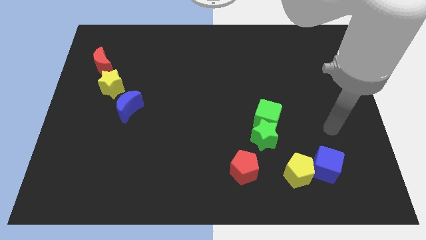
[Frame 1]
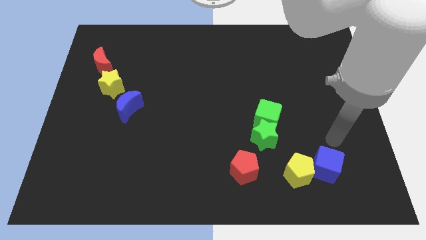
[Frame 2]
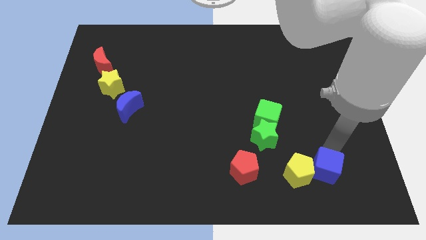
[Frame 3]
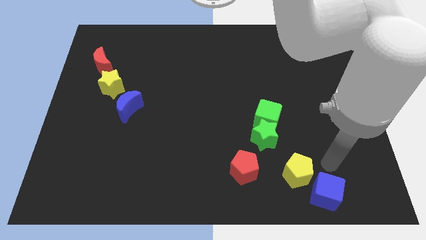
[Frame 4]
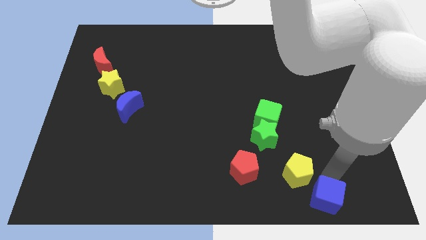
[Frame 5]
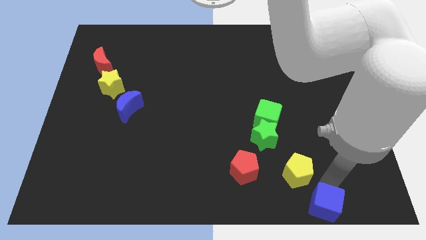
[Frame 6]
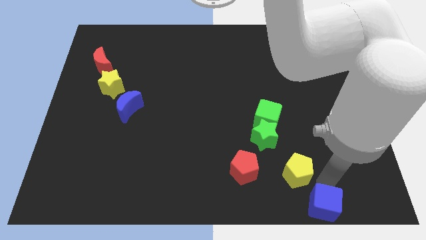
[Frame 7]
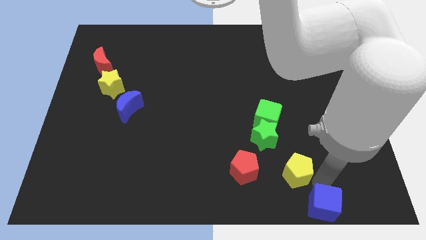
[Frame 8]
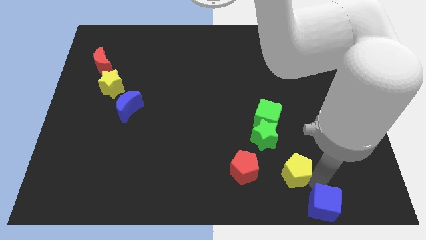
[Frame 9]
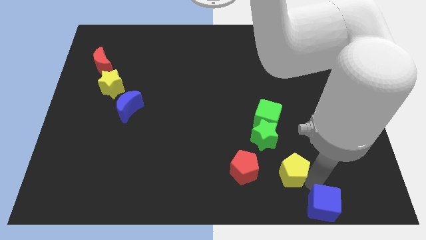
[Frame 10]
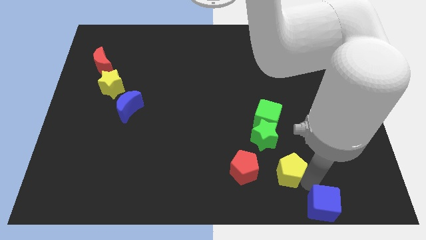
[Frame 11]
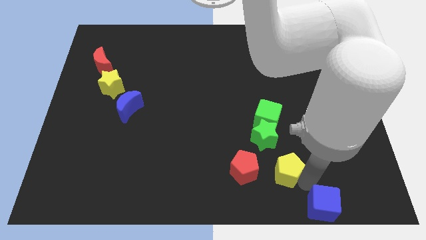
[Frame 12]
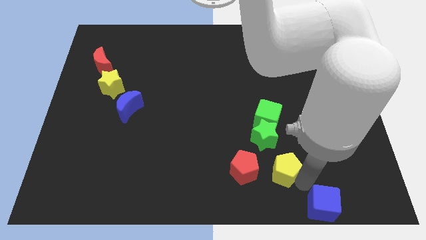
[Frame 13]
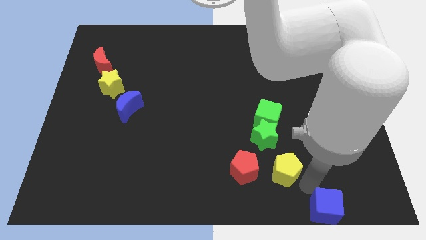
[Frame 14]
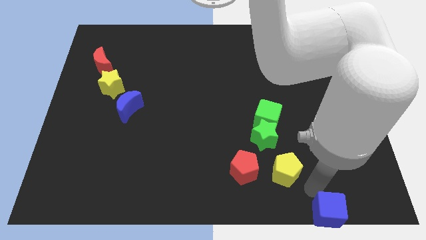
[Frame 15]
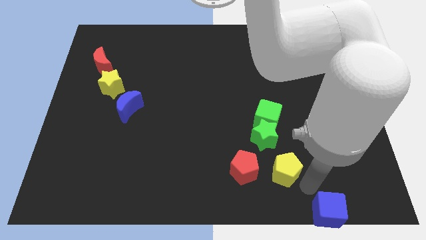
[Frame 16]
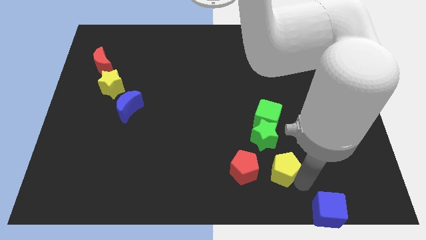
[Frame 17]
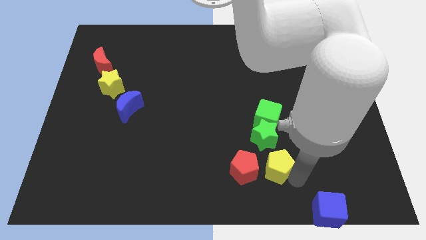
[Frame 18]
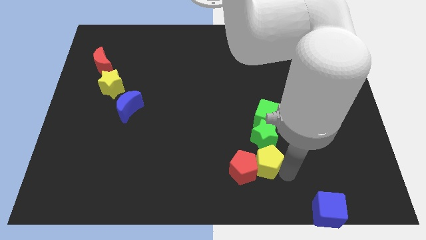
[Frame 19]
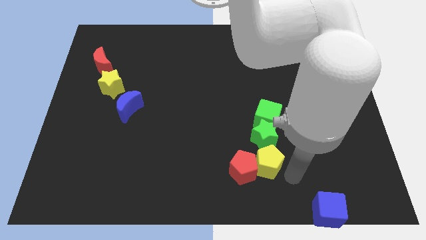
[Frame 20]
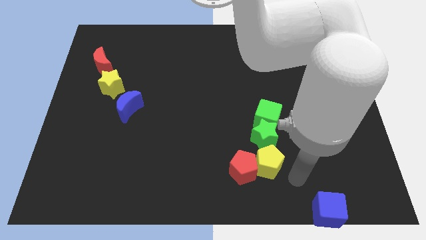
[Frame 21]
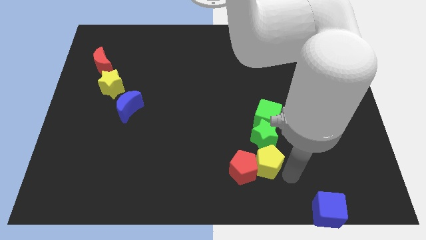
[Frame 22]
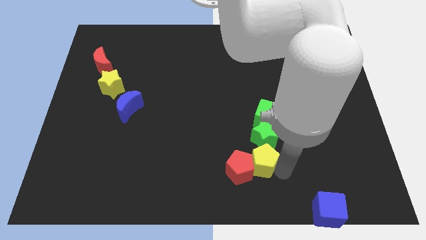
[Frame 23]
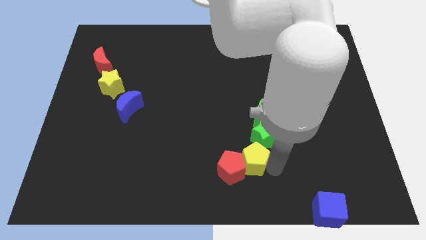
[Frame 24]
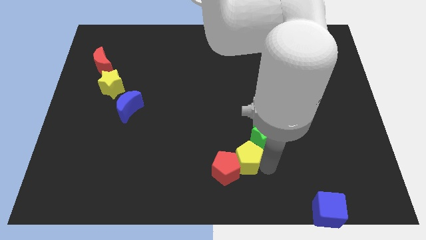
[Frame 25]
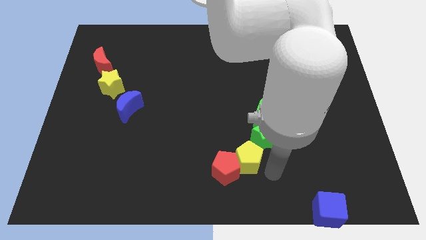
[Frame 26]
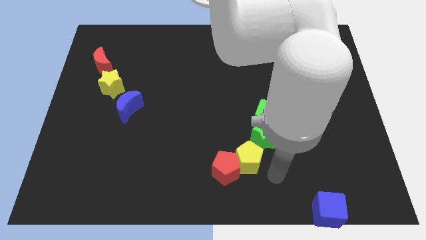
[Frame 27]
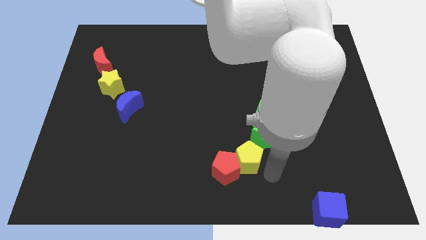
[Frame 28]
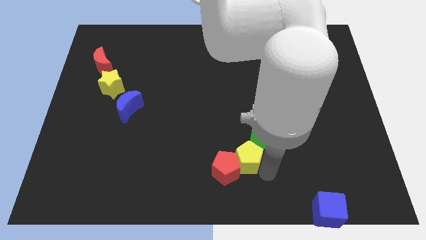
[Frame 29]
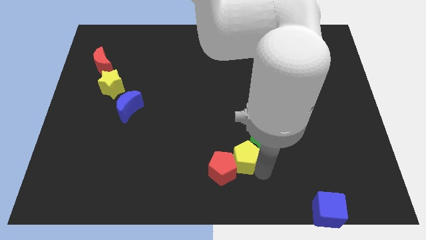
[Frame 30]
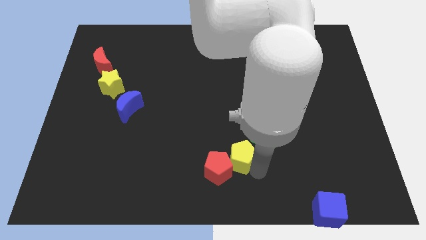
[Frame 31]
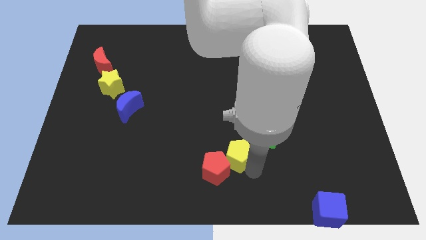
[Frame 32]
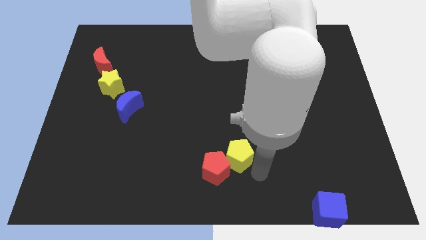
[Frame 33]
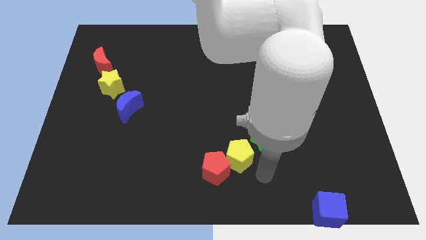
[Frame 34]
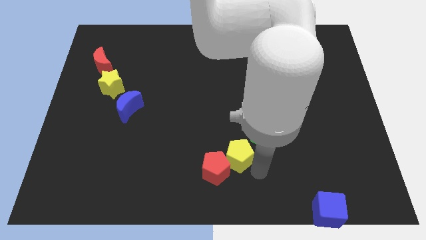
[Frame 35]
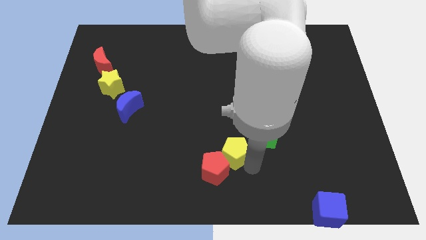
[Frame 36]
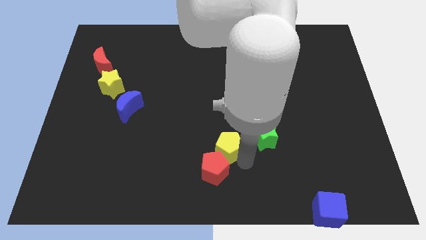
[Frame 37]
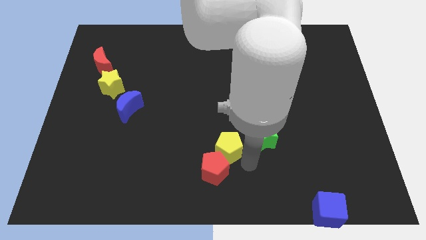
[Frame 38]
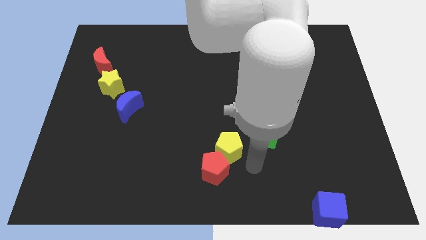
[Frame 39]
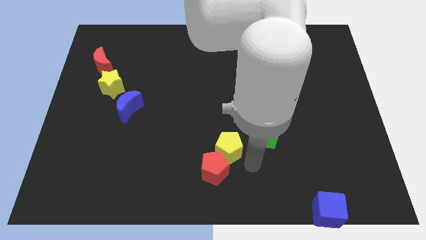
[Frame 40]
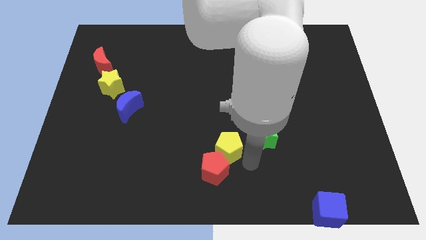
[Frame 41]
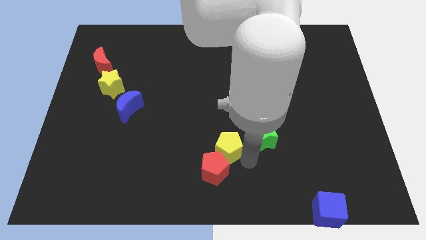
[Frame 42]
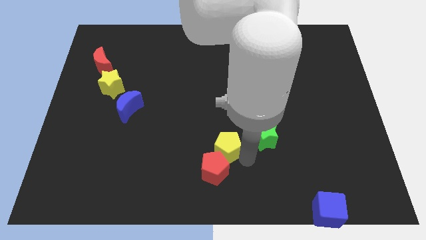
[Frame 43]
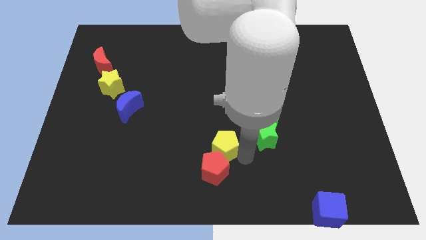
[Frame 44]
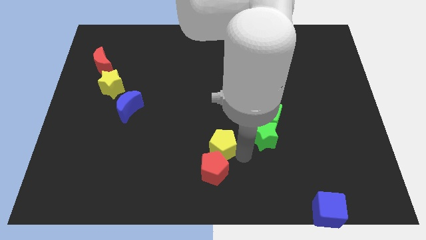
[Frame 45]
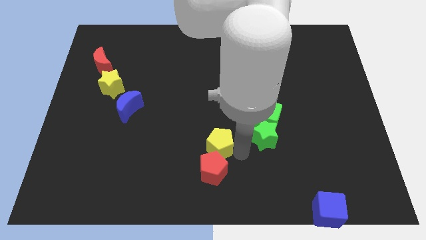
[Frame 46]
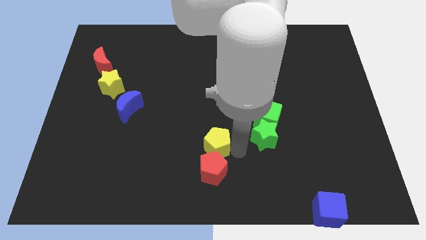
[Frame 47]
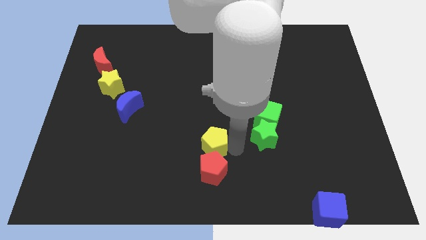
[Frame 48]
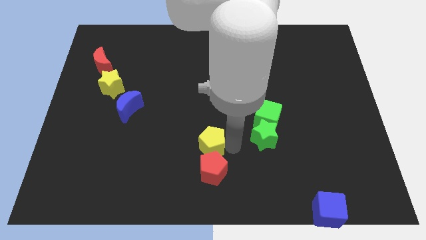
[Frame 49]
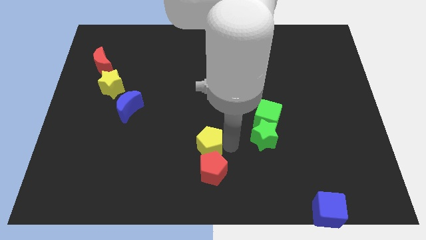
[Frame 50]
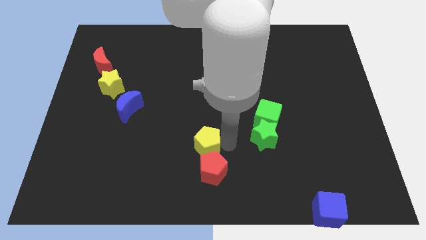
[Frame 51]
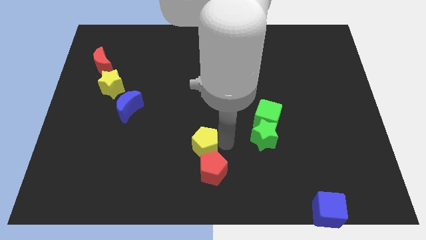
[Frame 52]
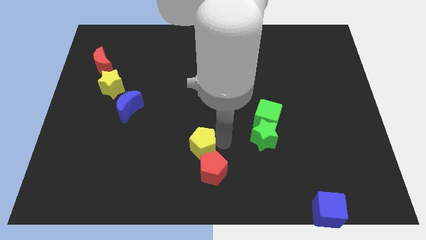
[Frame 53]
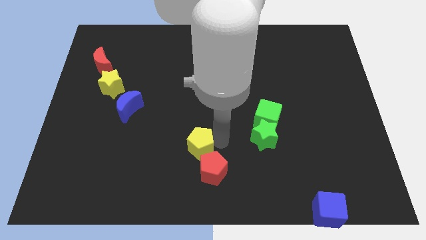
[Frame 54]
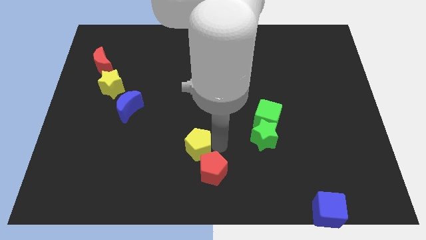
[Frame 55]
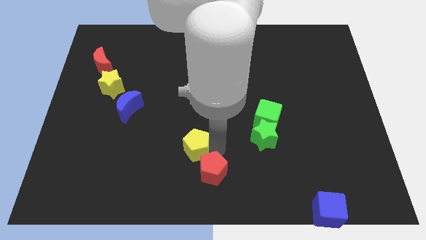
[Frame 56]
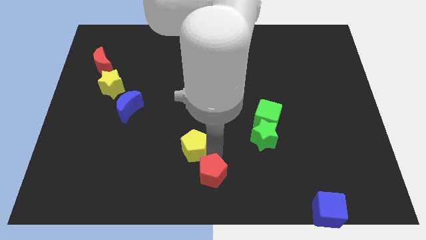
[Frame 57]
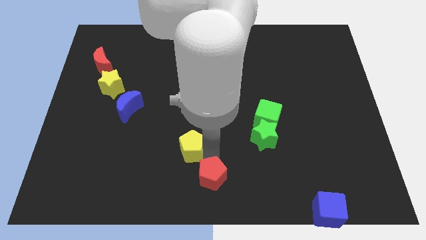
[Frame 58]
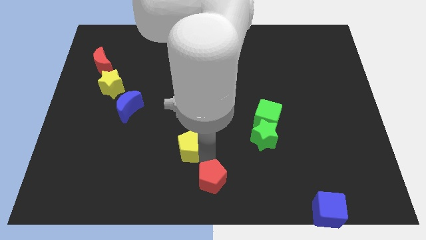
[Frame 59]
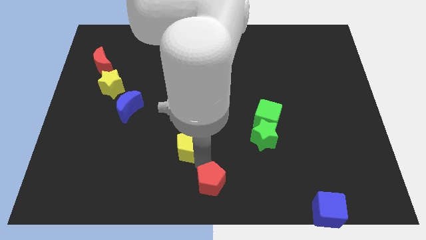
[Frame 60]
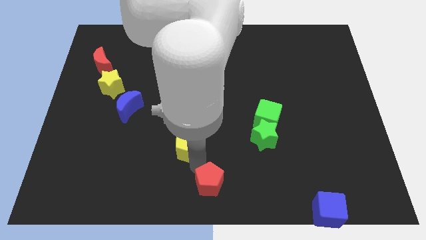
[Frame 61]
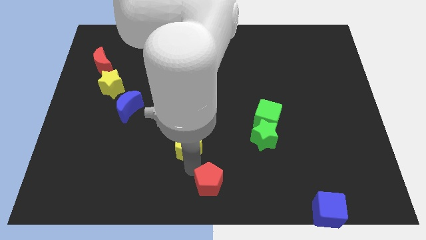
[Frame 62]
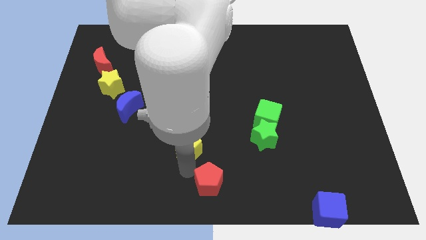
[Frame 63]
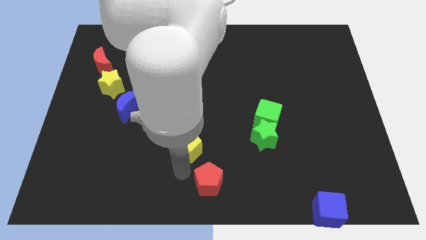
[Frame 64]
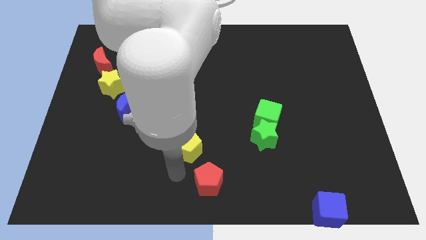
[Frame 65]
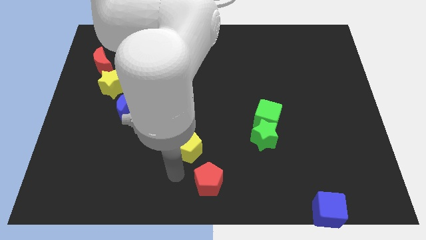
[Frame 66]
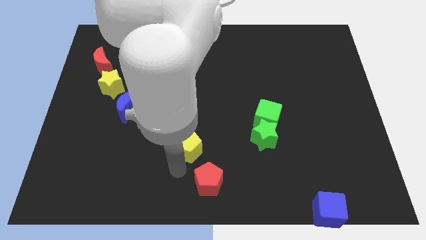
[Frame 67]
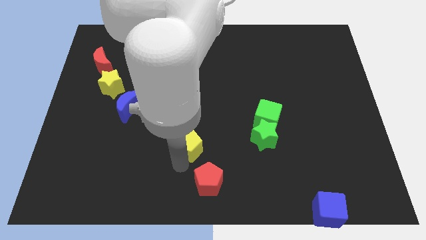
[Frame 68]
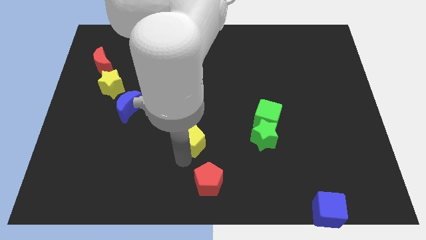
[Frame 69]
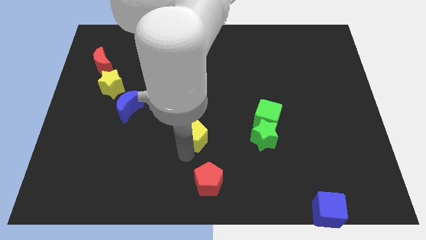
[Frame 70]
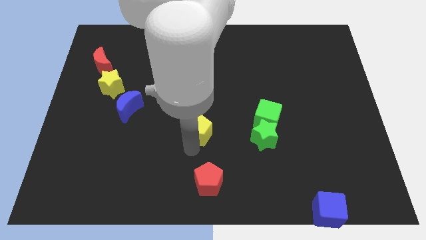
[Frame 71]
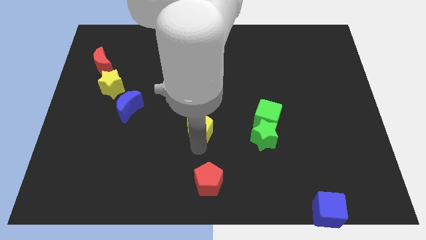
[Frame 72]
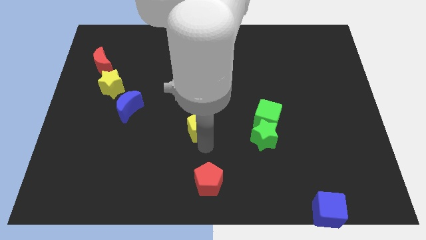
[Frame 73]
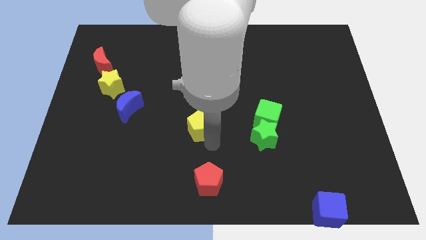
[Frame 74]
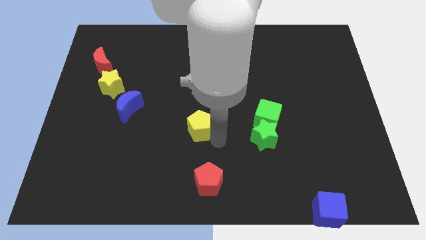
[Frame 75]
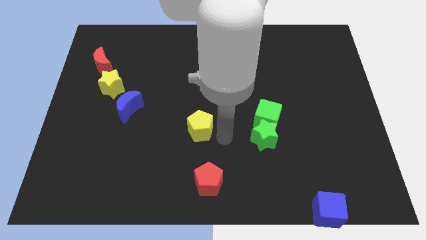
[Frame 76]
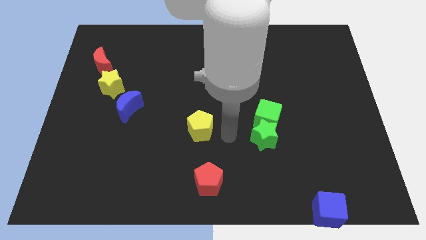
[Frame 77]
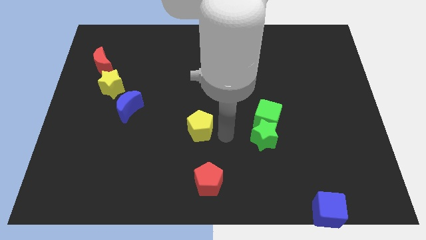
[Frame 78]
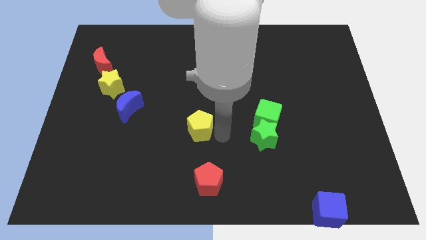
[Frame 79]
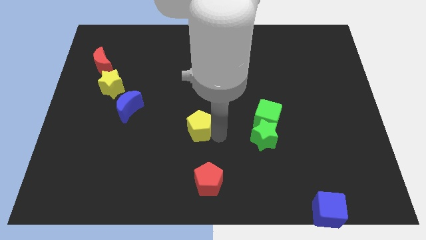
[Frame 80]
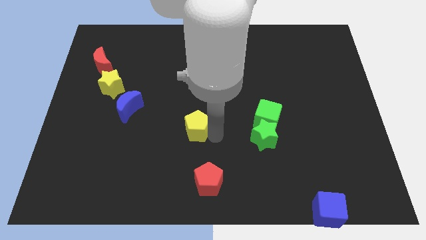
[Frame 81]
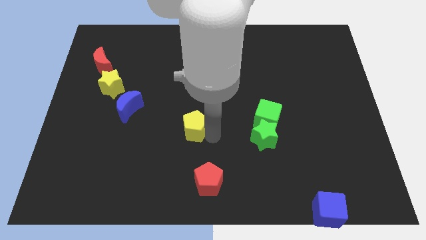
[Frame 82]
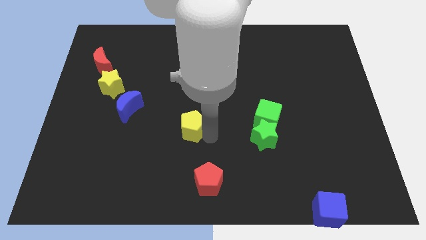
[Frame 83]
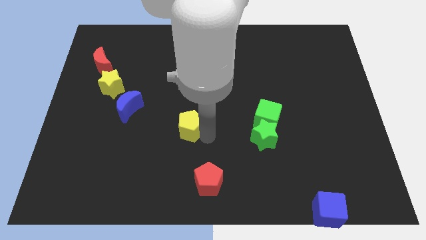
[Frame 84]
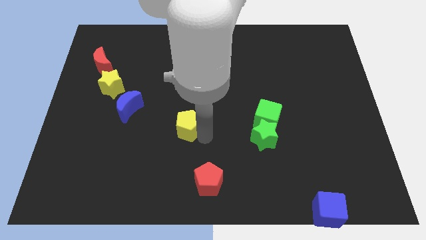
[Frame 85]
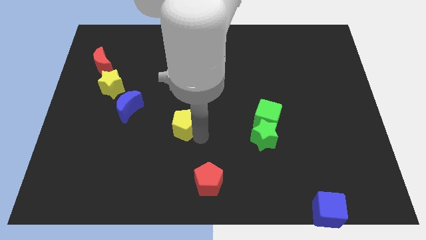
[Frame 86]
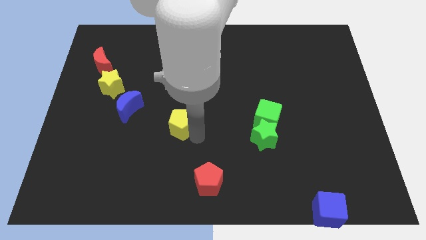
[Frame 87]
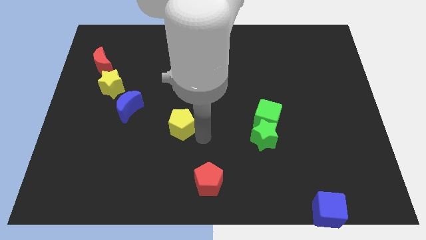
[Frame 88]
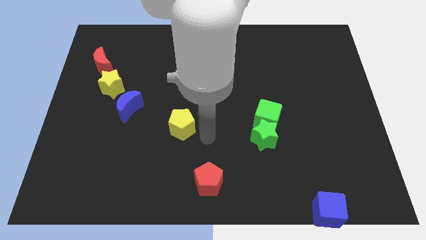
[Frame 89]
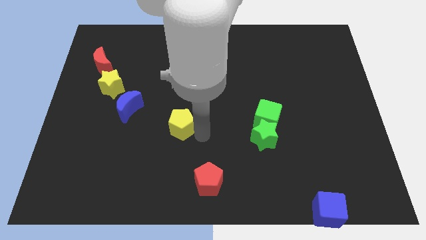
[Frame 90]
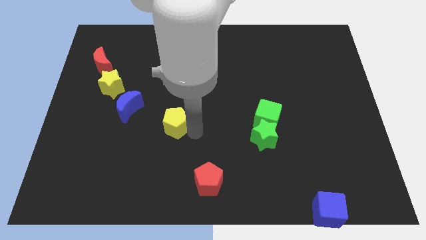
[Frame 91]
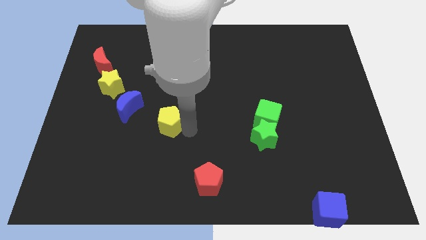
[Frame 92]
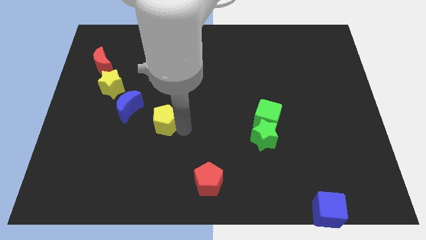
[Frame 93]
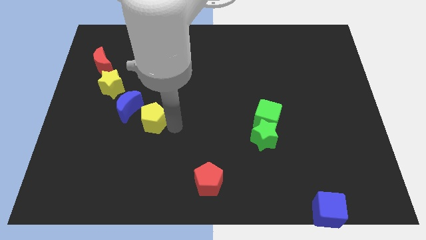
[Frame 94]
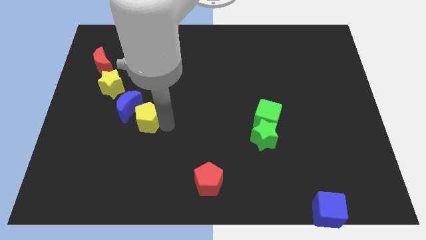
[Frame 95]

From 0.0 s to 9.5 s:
move the yellow pentagon to the blue moon
